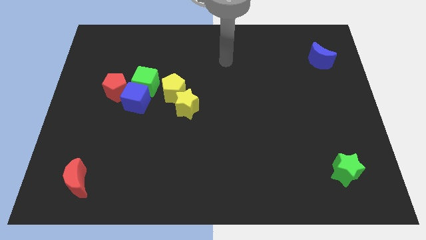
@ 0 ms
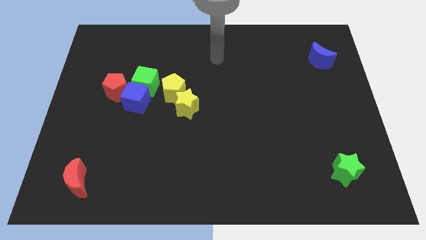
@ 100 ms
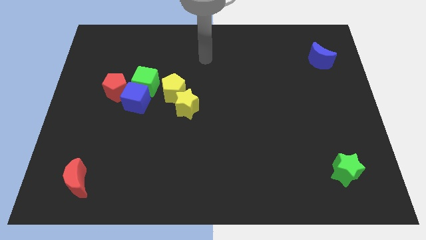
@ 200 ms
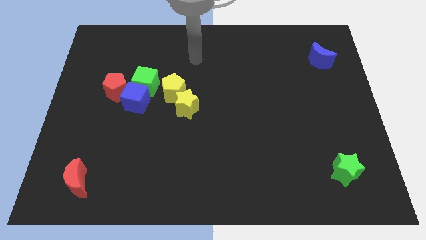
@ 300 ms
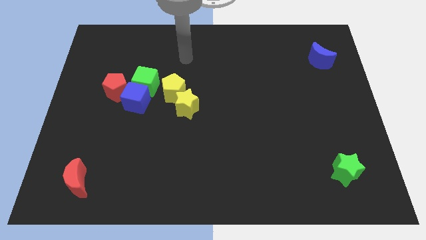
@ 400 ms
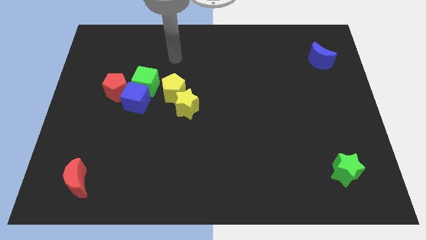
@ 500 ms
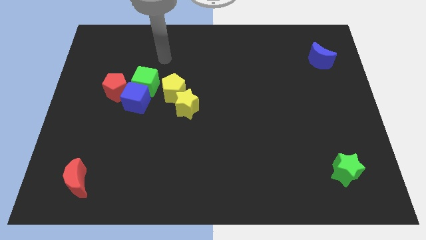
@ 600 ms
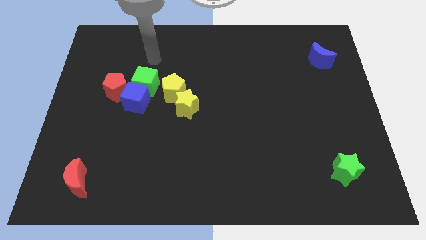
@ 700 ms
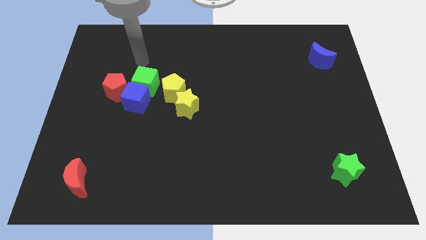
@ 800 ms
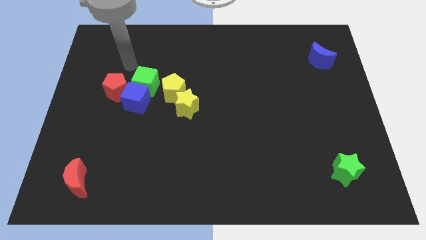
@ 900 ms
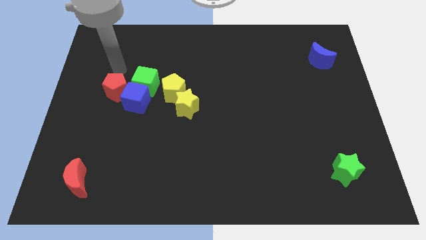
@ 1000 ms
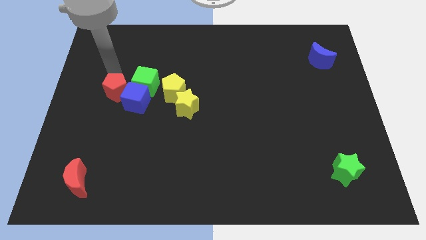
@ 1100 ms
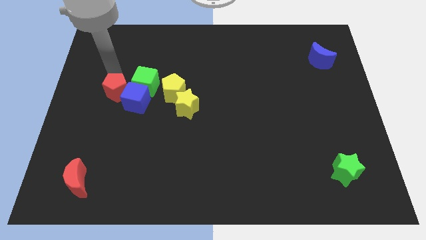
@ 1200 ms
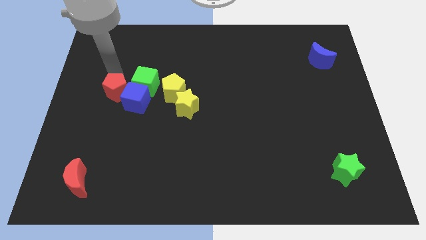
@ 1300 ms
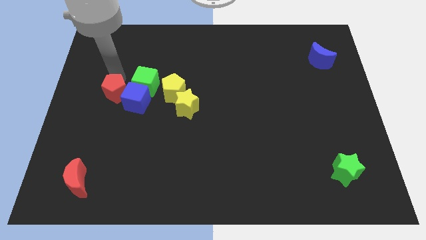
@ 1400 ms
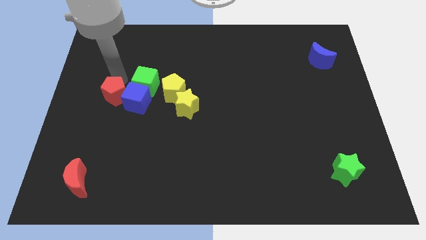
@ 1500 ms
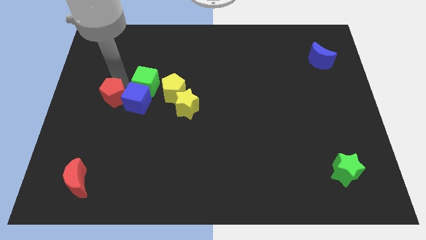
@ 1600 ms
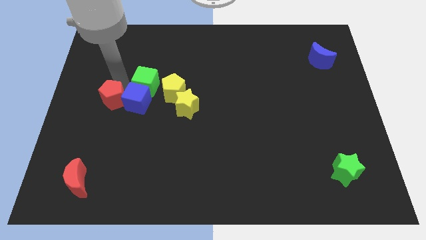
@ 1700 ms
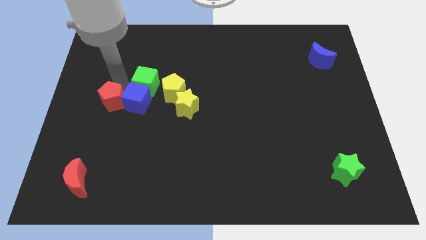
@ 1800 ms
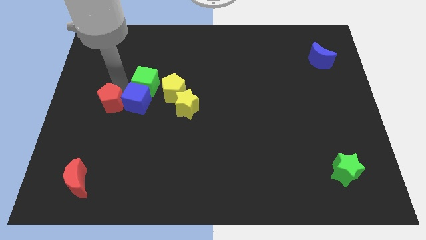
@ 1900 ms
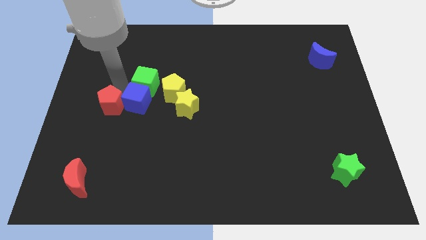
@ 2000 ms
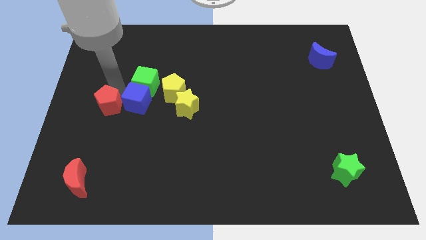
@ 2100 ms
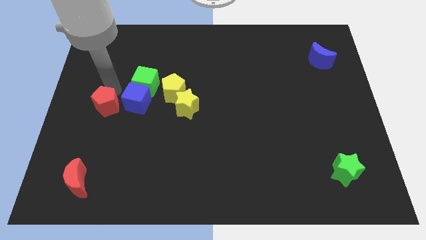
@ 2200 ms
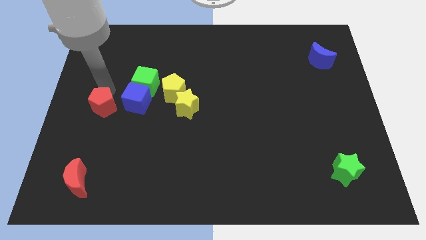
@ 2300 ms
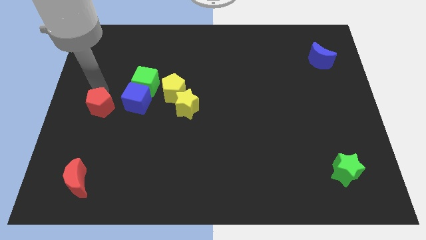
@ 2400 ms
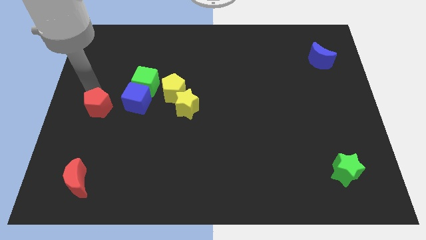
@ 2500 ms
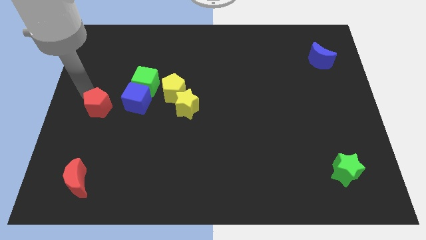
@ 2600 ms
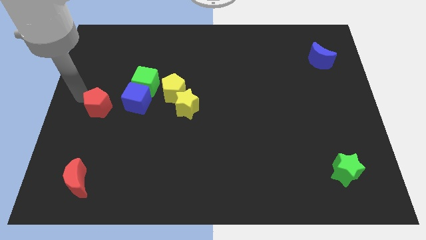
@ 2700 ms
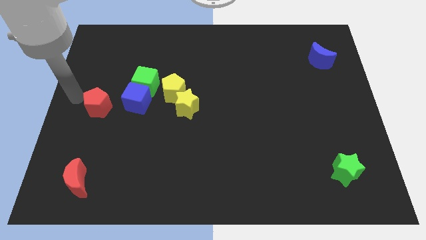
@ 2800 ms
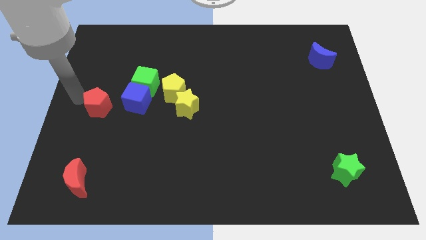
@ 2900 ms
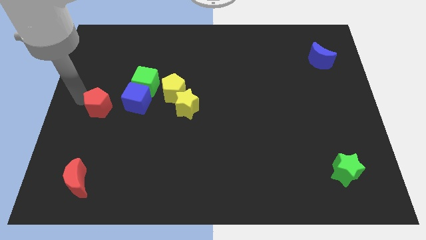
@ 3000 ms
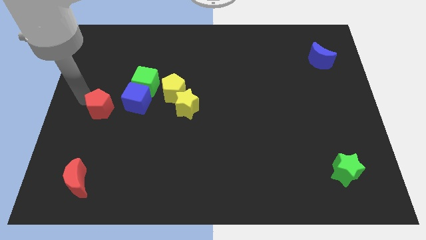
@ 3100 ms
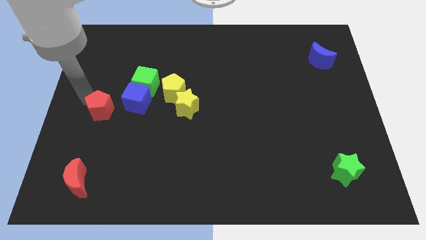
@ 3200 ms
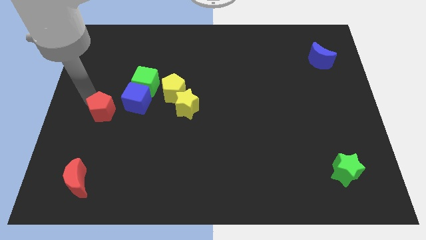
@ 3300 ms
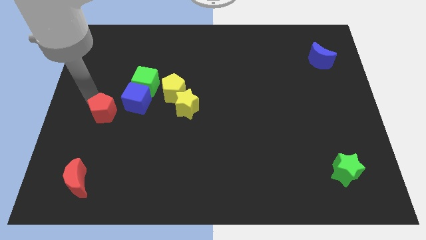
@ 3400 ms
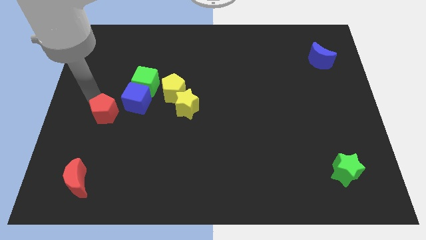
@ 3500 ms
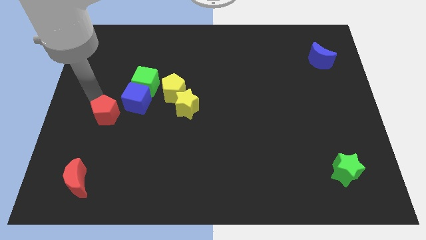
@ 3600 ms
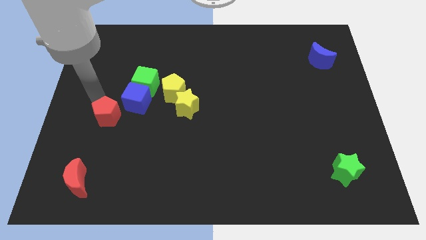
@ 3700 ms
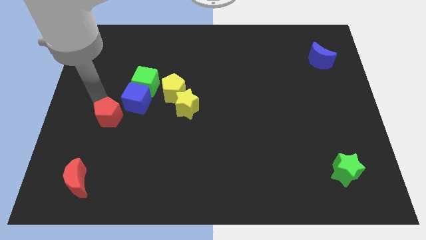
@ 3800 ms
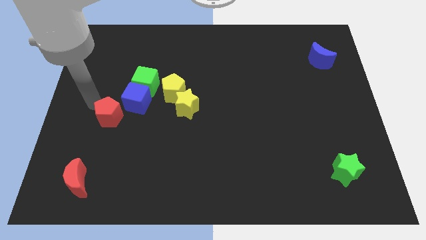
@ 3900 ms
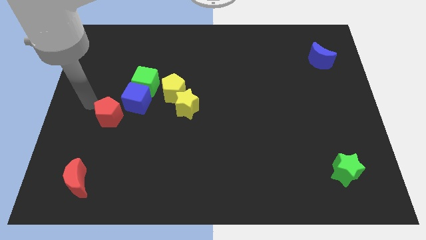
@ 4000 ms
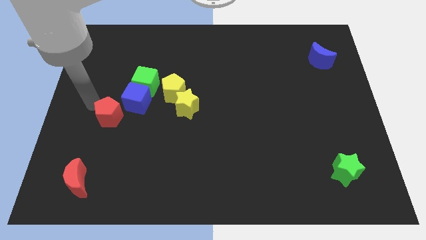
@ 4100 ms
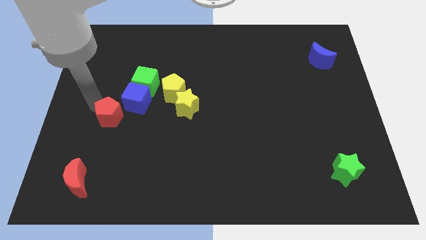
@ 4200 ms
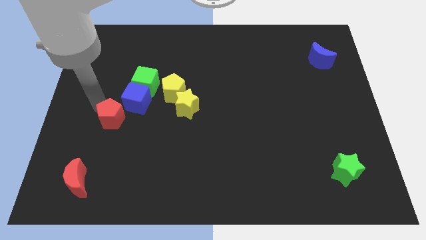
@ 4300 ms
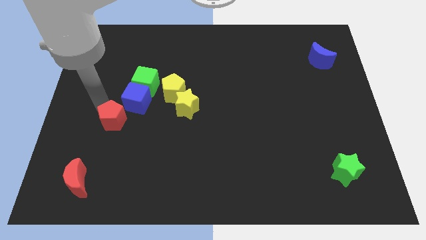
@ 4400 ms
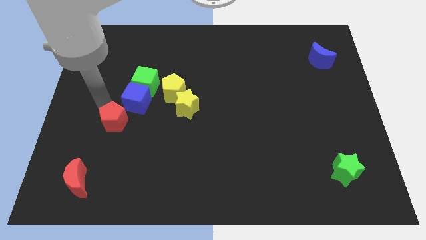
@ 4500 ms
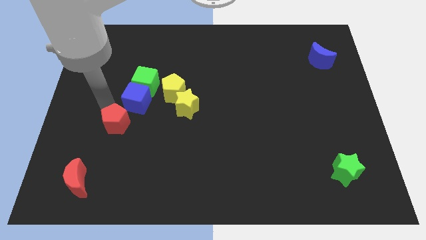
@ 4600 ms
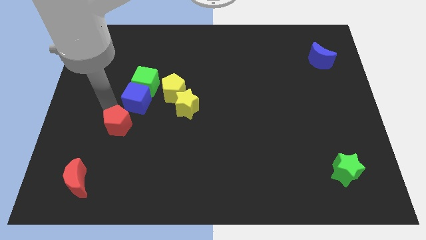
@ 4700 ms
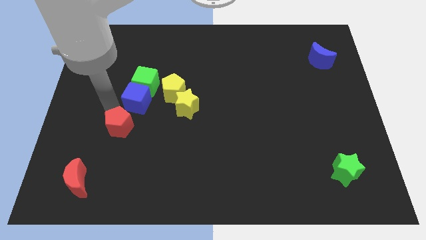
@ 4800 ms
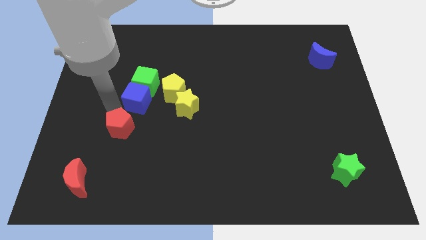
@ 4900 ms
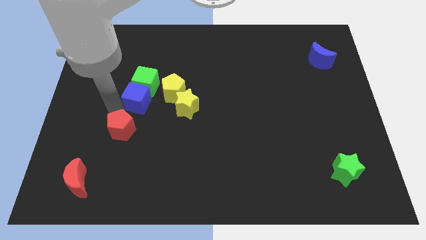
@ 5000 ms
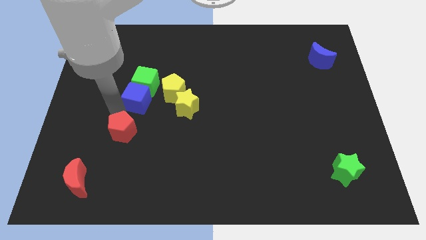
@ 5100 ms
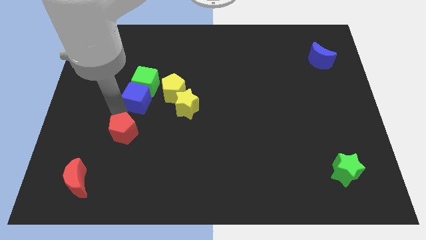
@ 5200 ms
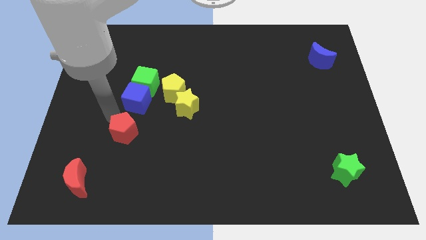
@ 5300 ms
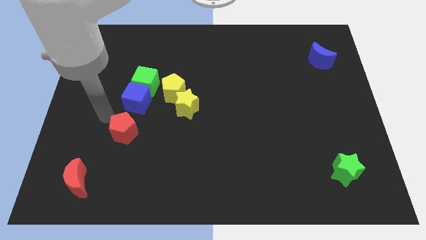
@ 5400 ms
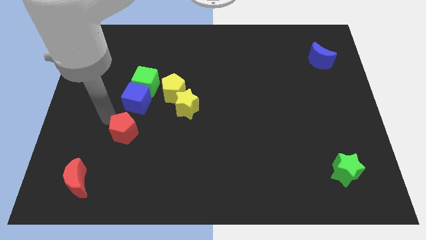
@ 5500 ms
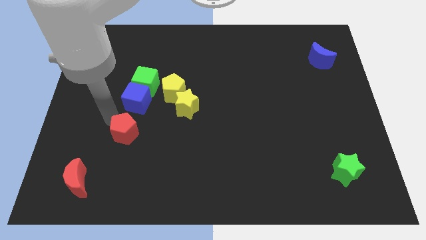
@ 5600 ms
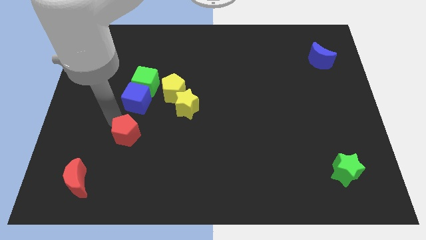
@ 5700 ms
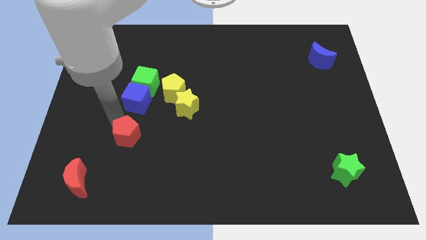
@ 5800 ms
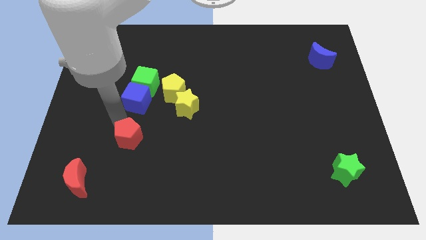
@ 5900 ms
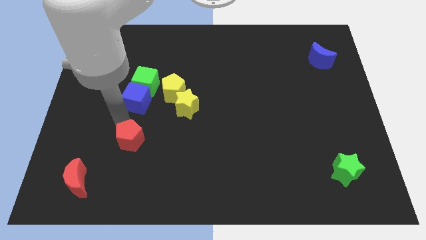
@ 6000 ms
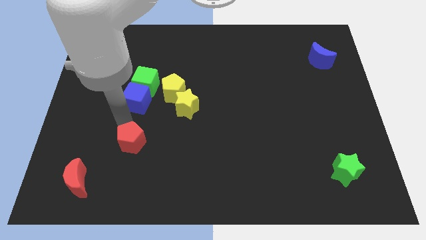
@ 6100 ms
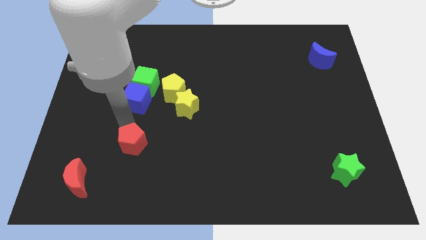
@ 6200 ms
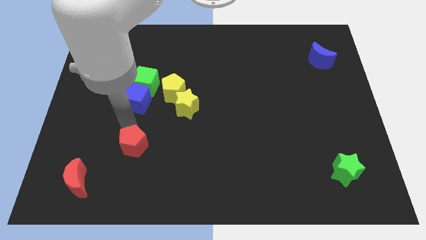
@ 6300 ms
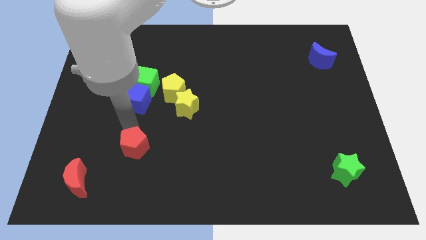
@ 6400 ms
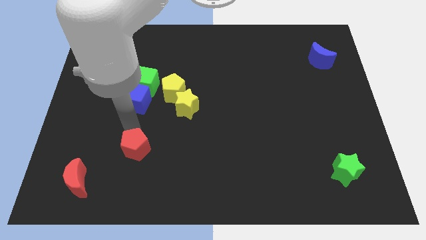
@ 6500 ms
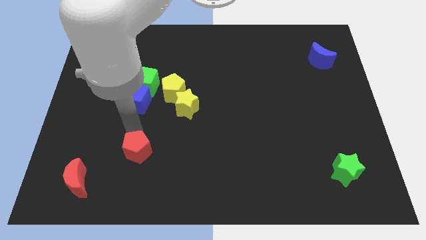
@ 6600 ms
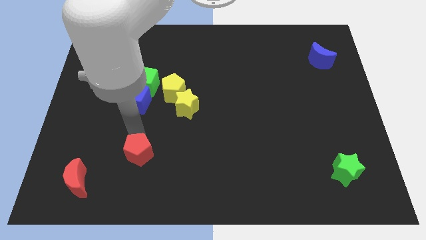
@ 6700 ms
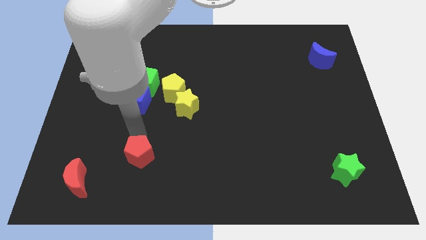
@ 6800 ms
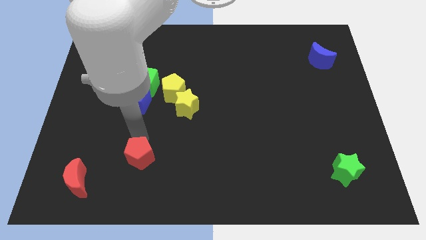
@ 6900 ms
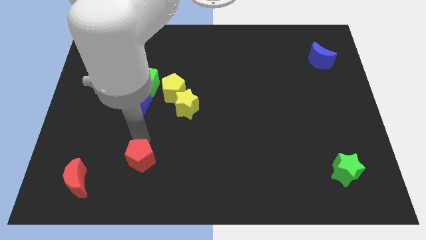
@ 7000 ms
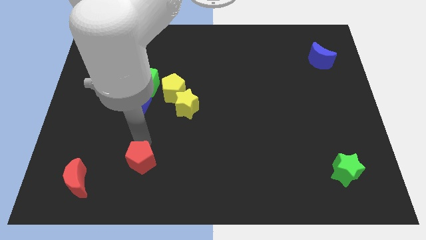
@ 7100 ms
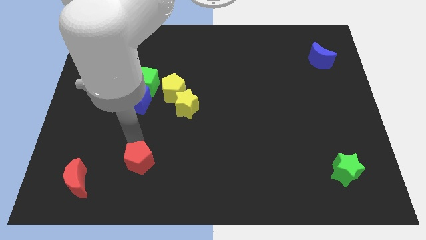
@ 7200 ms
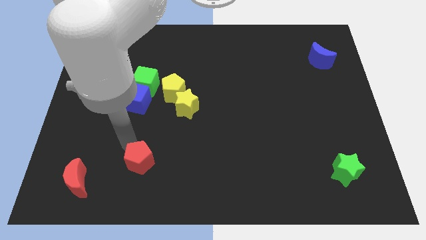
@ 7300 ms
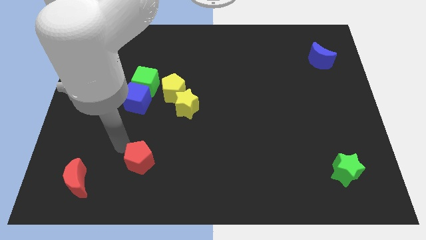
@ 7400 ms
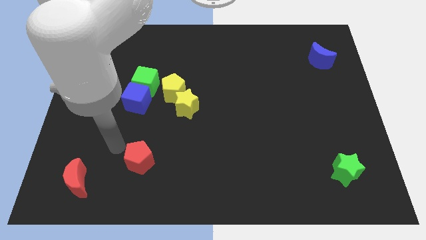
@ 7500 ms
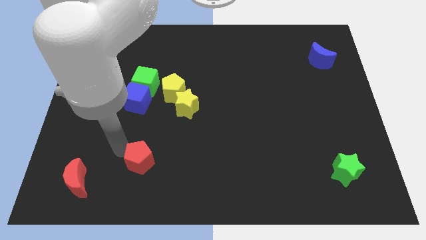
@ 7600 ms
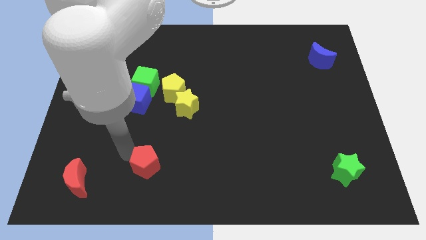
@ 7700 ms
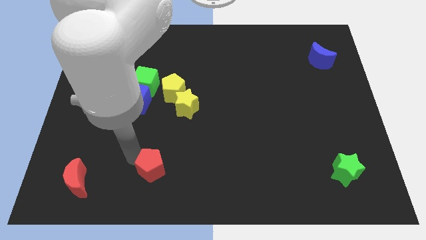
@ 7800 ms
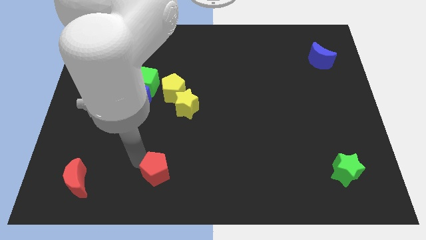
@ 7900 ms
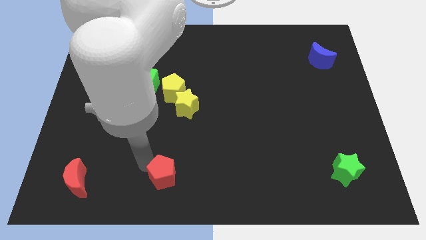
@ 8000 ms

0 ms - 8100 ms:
move the red pentagon to the bottom
